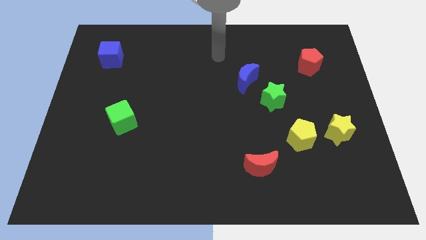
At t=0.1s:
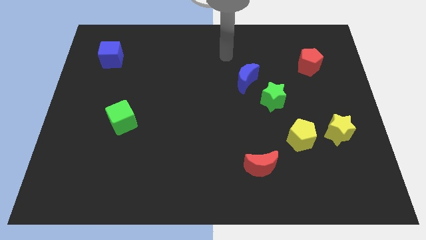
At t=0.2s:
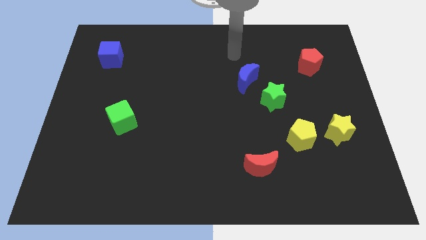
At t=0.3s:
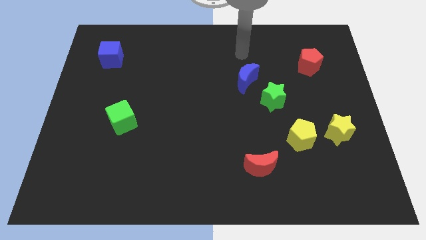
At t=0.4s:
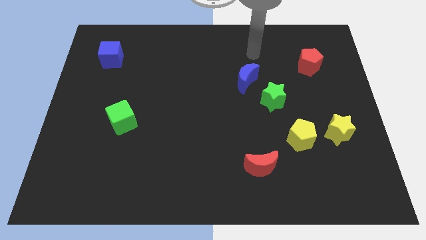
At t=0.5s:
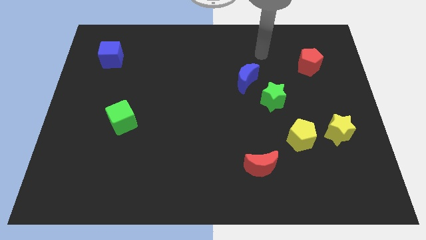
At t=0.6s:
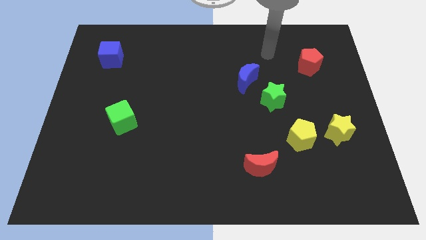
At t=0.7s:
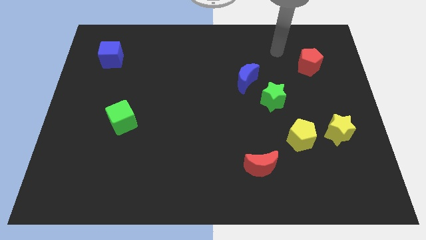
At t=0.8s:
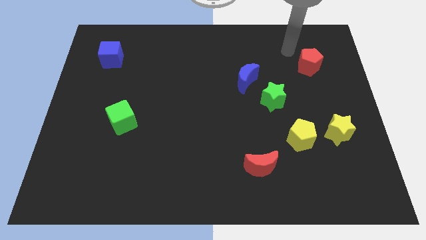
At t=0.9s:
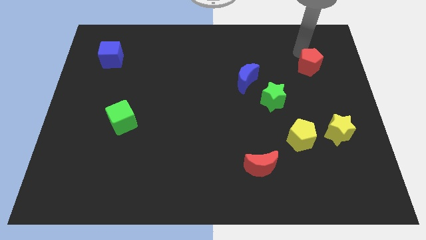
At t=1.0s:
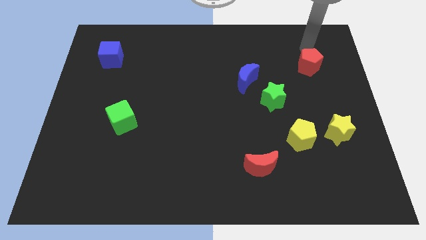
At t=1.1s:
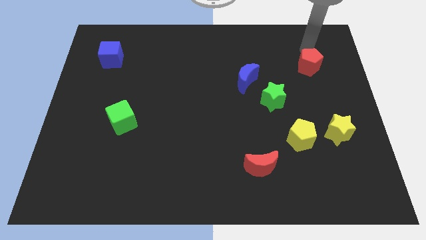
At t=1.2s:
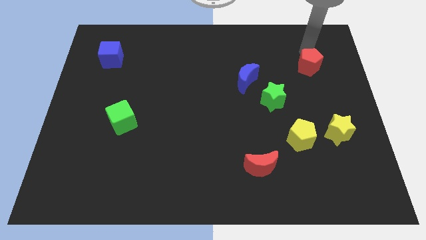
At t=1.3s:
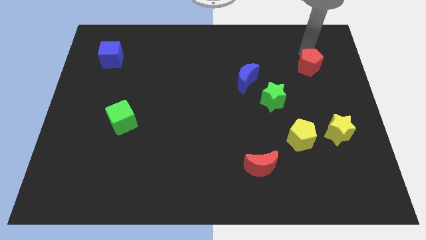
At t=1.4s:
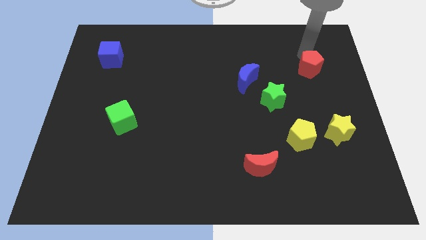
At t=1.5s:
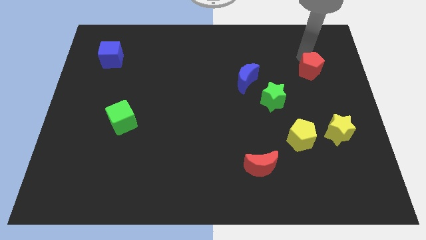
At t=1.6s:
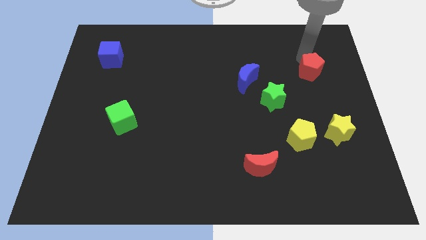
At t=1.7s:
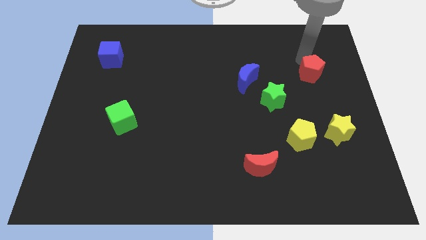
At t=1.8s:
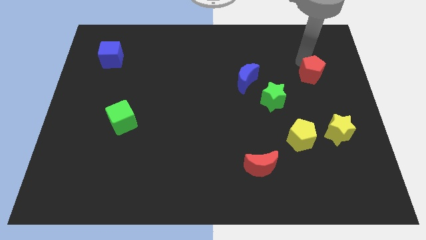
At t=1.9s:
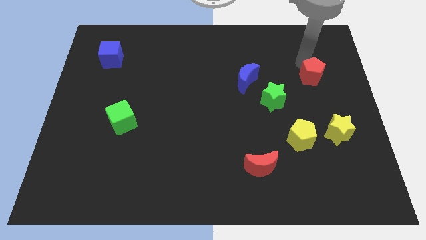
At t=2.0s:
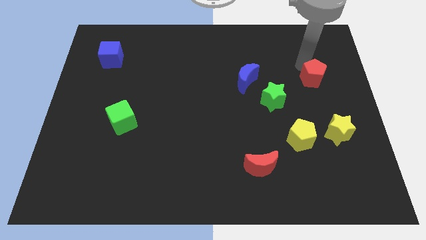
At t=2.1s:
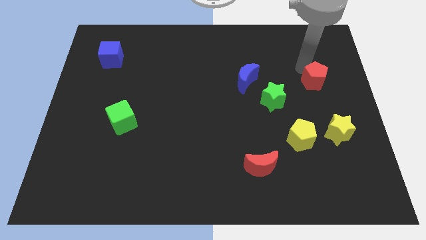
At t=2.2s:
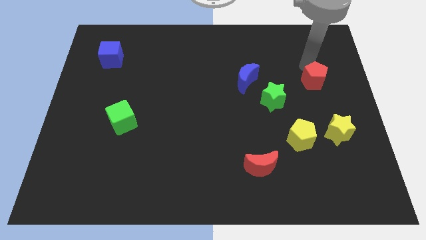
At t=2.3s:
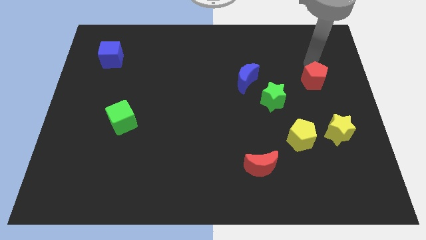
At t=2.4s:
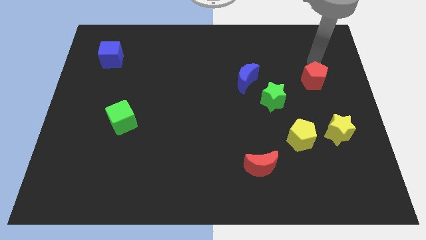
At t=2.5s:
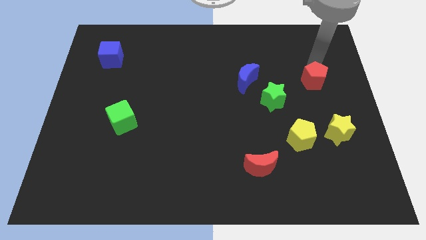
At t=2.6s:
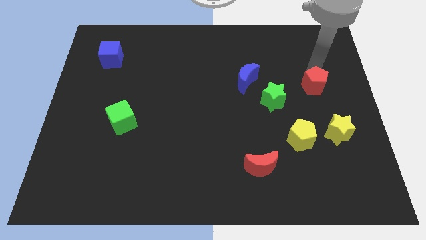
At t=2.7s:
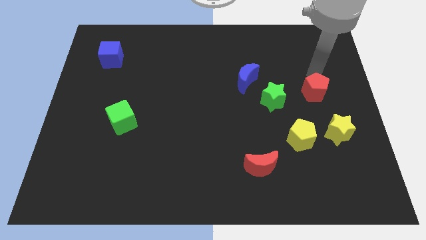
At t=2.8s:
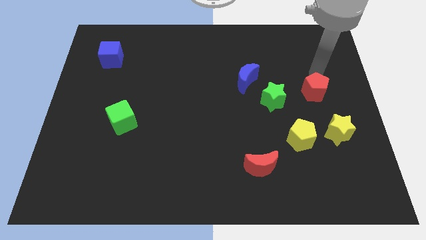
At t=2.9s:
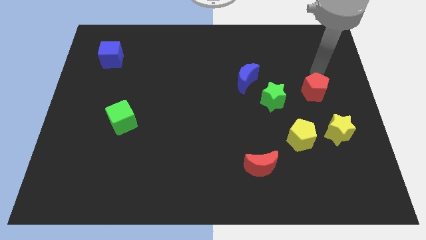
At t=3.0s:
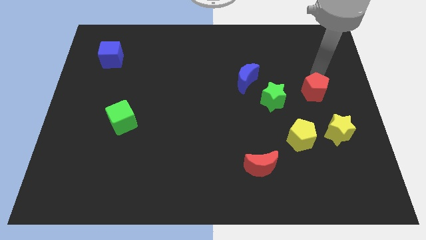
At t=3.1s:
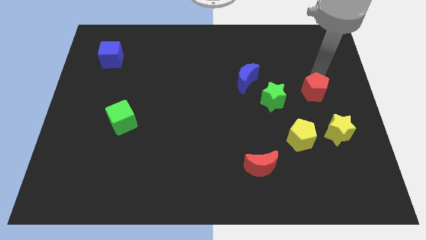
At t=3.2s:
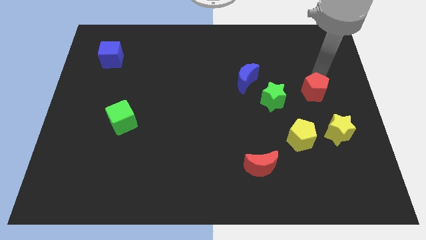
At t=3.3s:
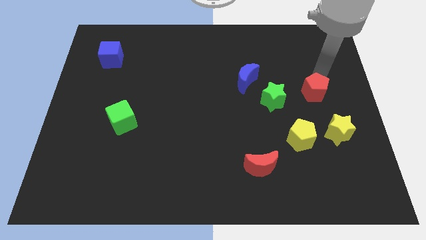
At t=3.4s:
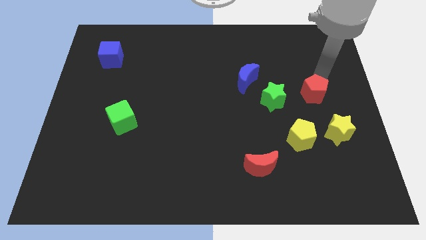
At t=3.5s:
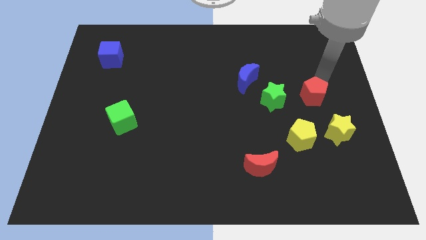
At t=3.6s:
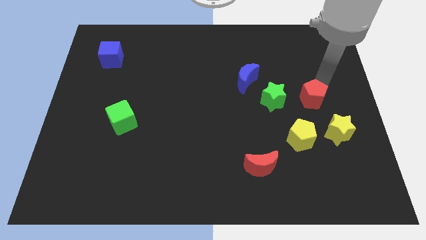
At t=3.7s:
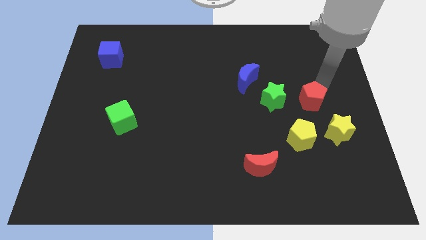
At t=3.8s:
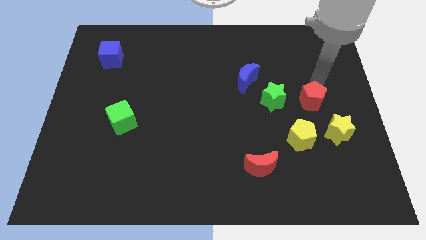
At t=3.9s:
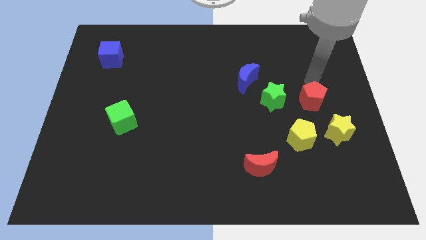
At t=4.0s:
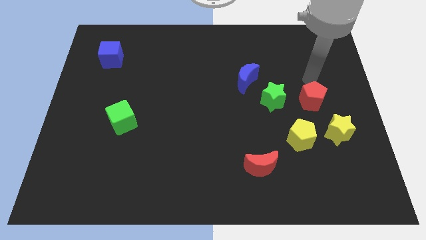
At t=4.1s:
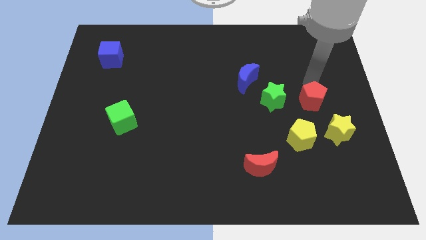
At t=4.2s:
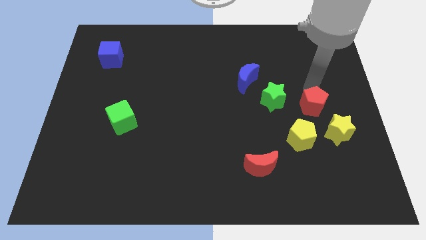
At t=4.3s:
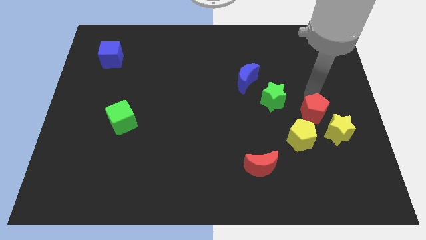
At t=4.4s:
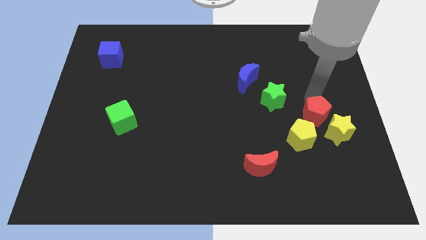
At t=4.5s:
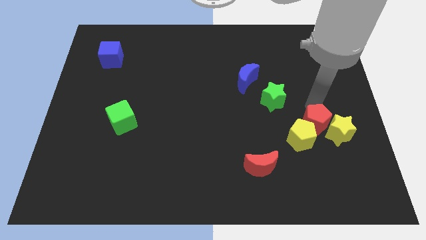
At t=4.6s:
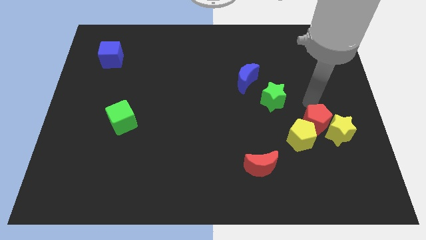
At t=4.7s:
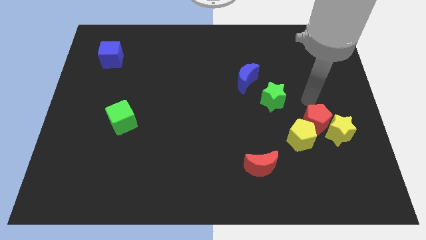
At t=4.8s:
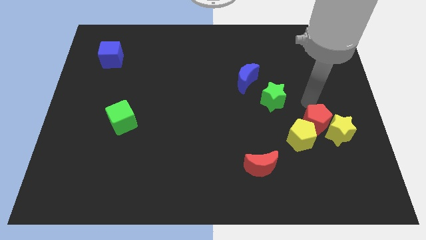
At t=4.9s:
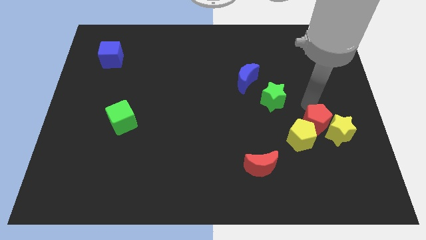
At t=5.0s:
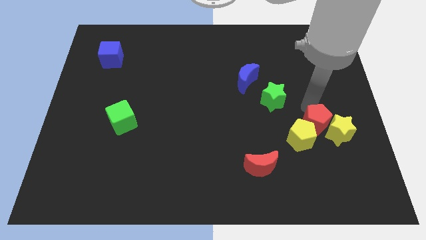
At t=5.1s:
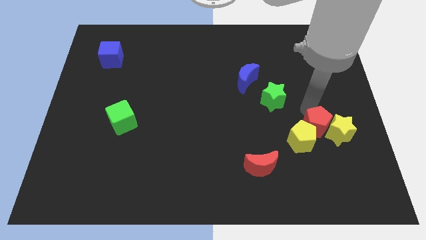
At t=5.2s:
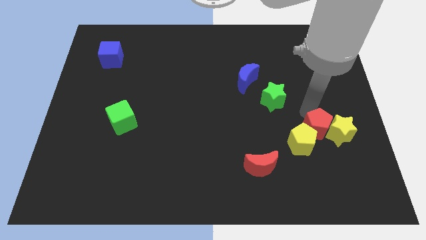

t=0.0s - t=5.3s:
move the red pentagon downwards

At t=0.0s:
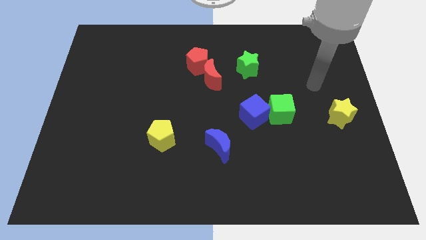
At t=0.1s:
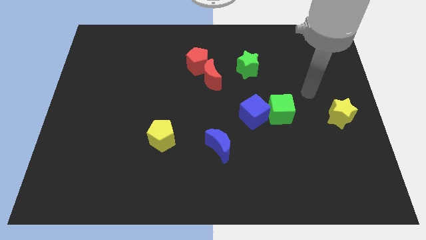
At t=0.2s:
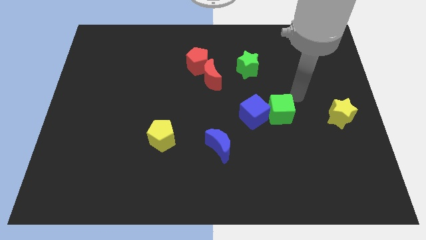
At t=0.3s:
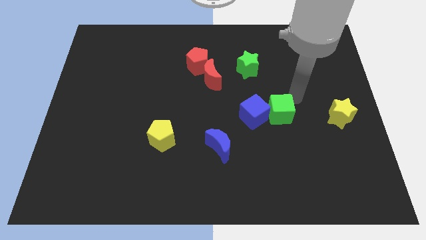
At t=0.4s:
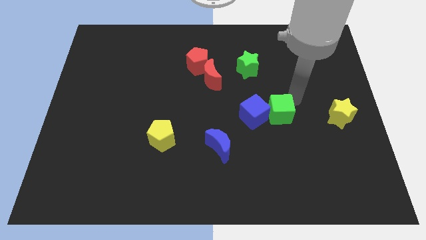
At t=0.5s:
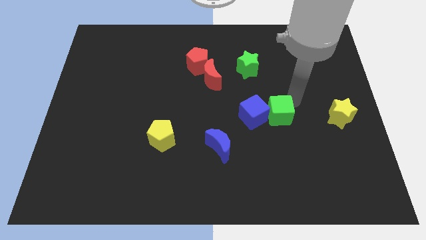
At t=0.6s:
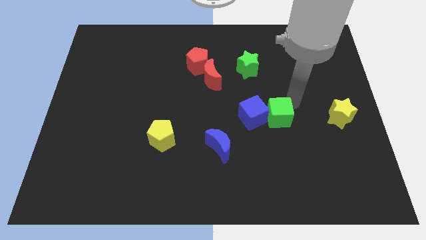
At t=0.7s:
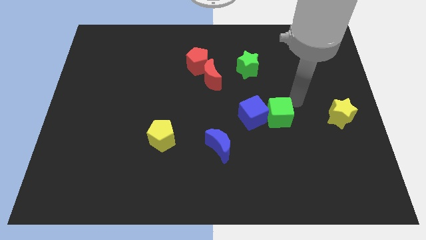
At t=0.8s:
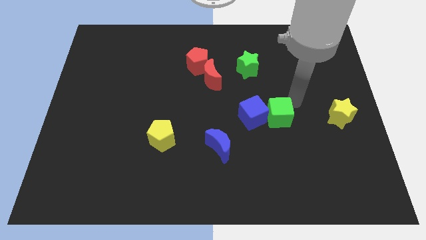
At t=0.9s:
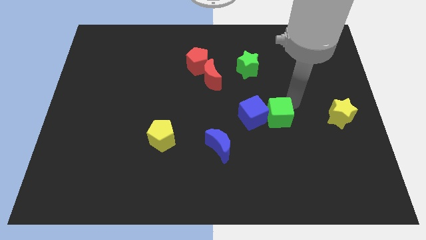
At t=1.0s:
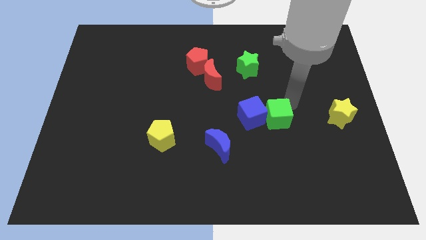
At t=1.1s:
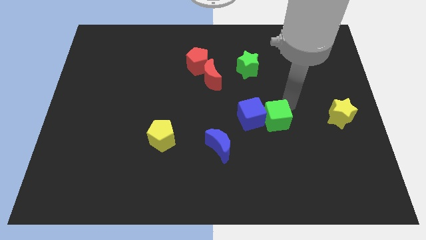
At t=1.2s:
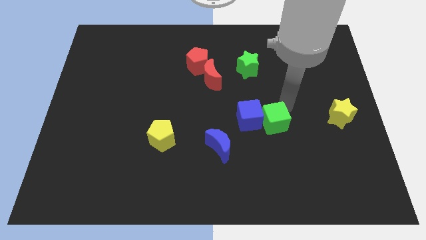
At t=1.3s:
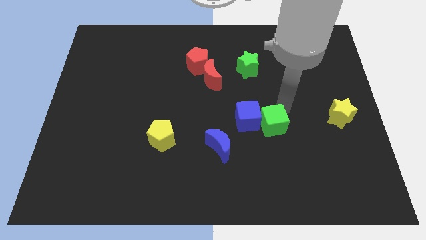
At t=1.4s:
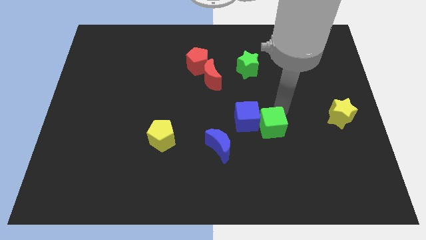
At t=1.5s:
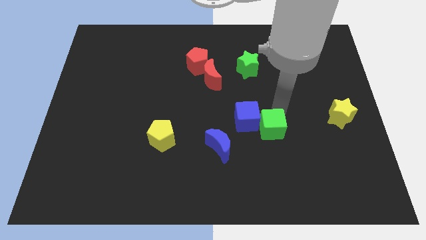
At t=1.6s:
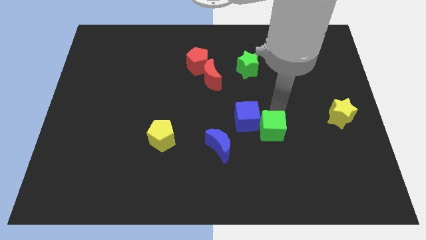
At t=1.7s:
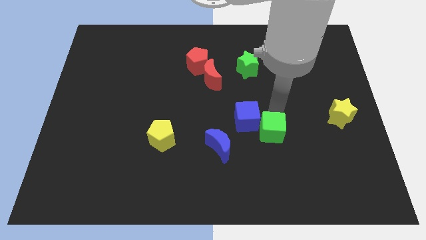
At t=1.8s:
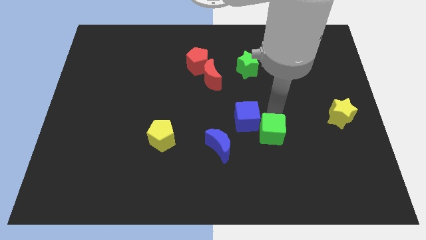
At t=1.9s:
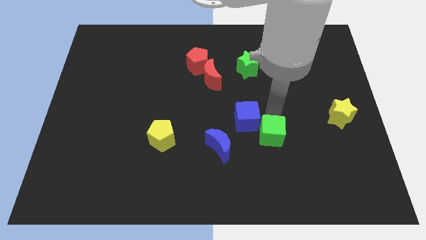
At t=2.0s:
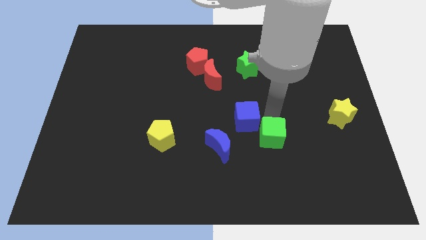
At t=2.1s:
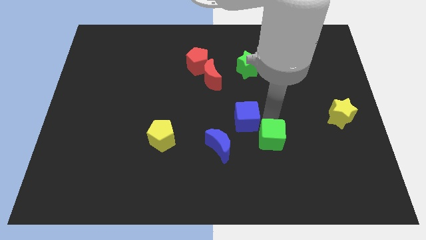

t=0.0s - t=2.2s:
slightly push the green cube down and to the left diagonally

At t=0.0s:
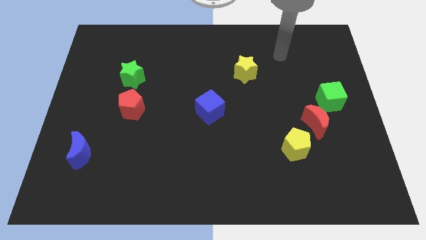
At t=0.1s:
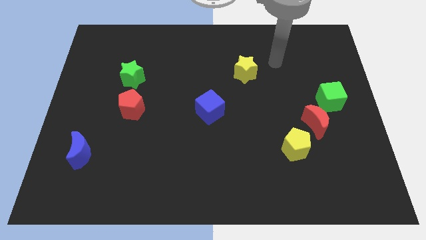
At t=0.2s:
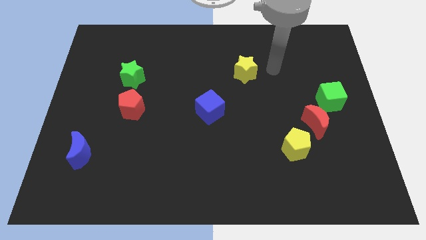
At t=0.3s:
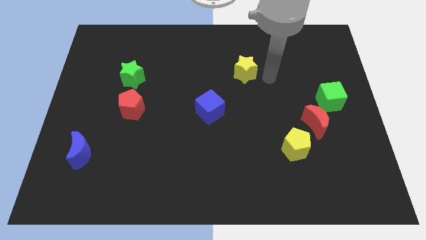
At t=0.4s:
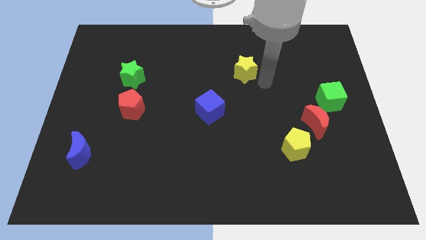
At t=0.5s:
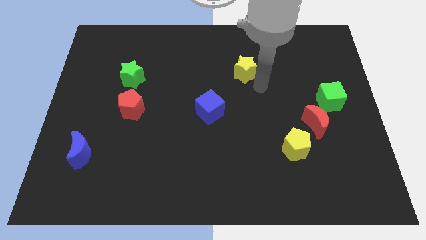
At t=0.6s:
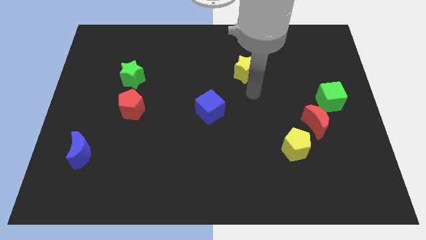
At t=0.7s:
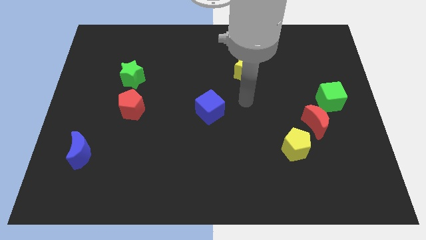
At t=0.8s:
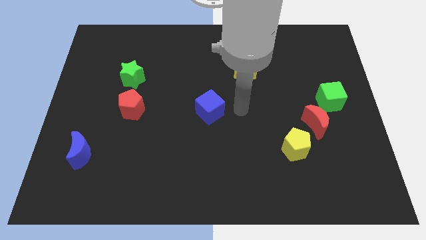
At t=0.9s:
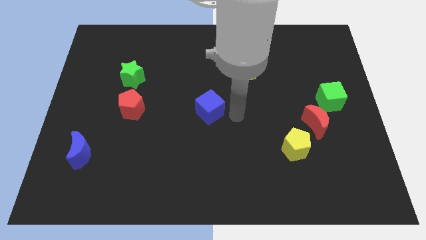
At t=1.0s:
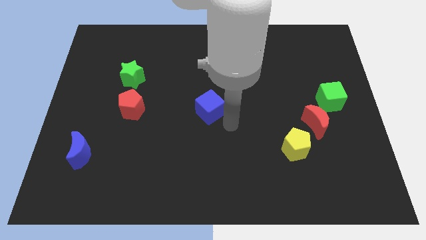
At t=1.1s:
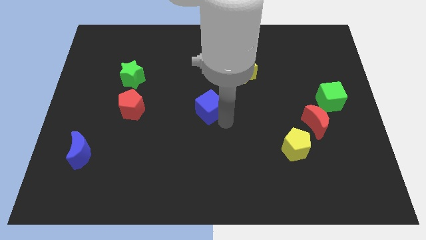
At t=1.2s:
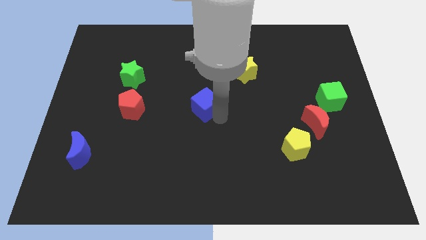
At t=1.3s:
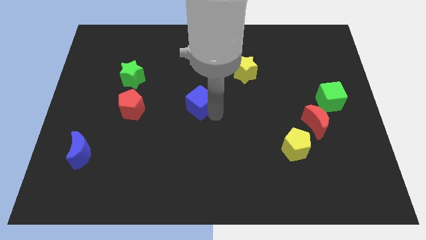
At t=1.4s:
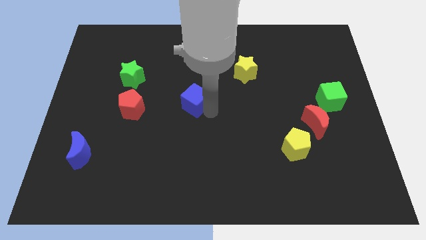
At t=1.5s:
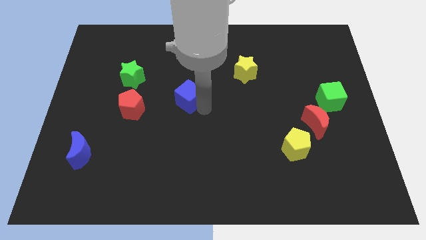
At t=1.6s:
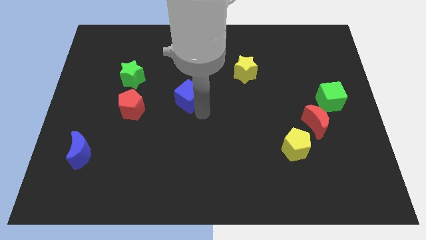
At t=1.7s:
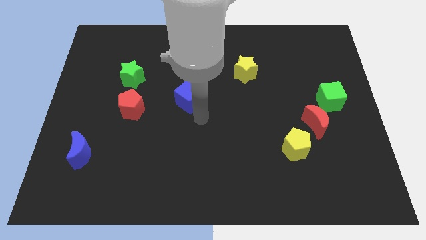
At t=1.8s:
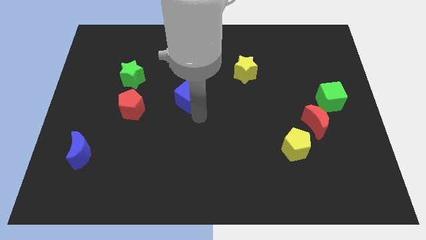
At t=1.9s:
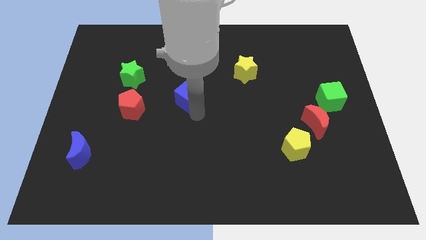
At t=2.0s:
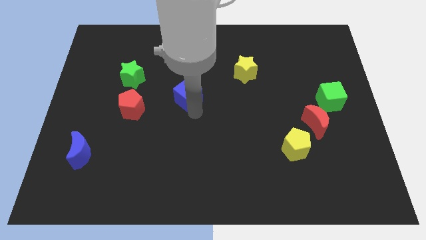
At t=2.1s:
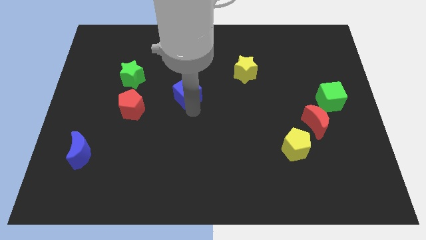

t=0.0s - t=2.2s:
slide the blue cube slightly upwards and left
